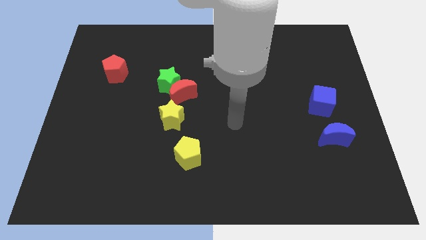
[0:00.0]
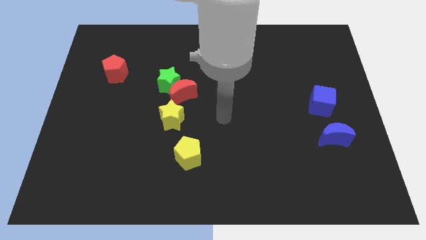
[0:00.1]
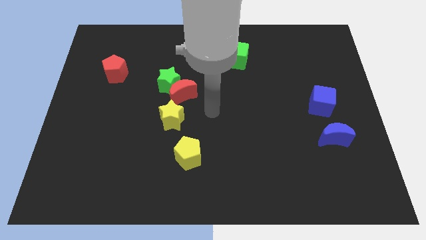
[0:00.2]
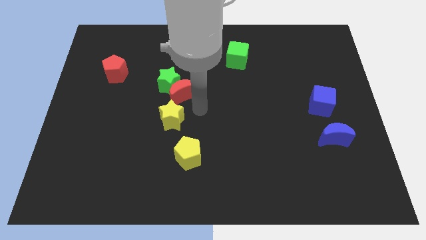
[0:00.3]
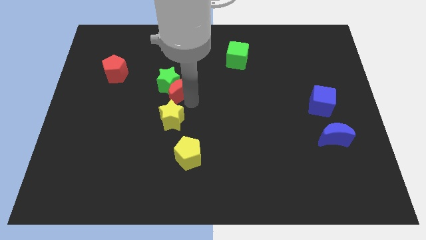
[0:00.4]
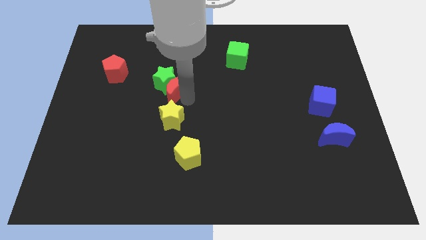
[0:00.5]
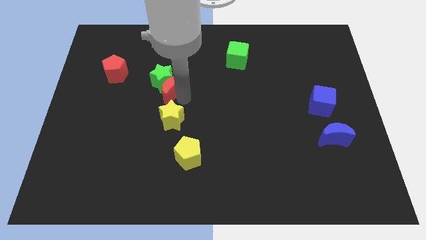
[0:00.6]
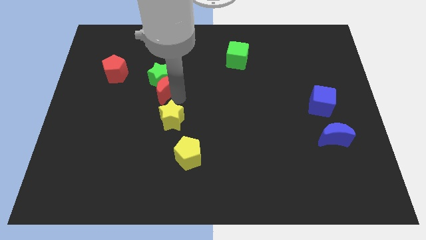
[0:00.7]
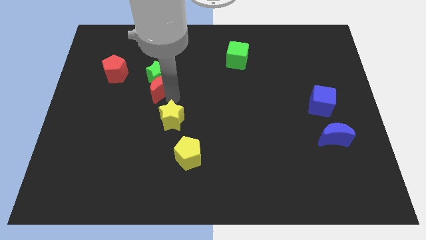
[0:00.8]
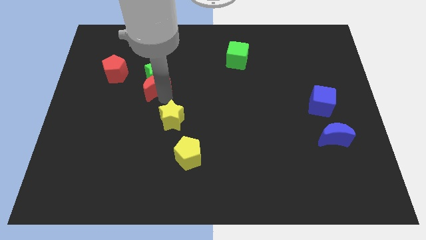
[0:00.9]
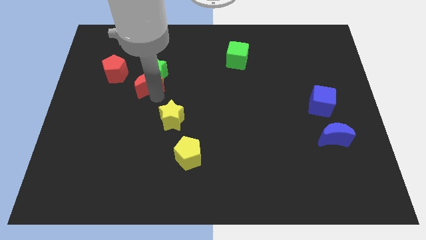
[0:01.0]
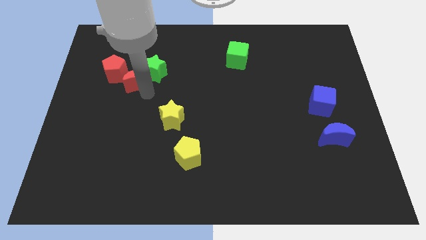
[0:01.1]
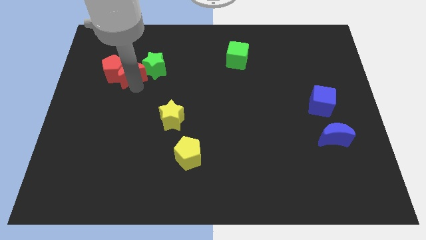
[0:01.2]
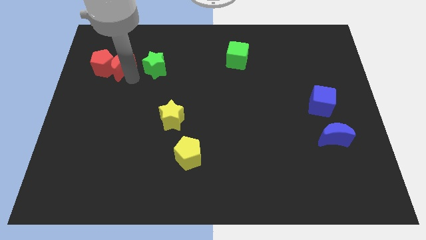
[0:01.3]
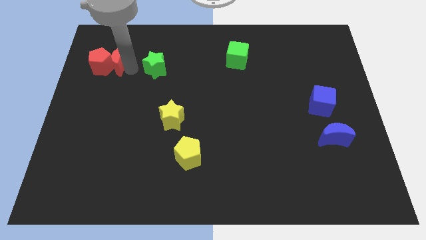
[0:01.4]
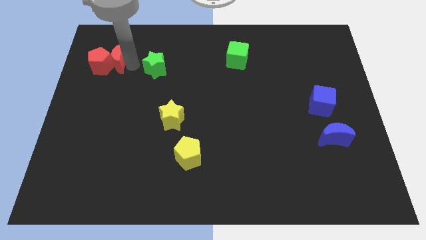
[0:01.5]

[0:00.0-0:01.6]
separate the green star from the red moon

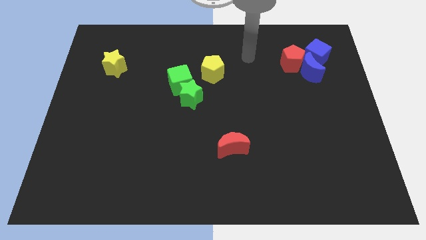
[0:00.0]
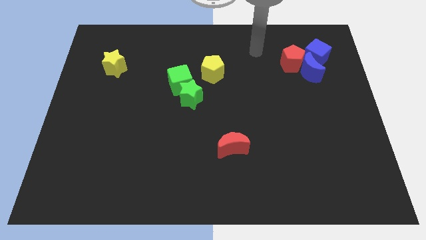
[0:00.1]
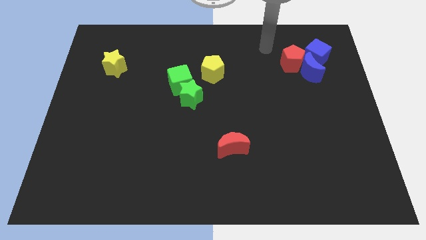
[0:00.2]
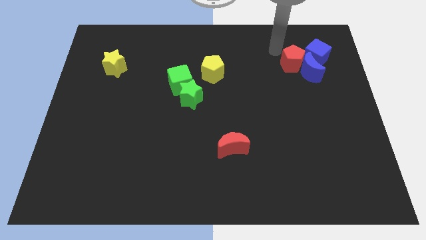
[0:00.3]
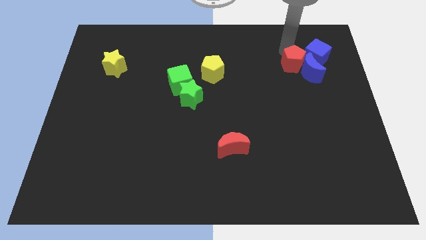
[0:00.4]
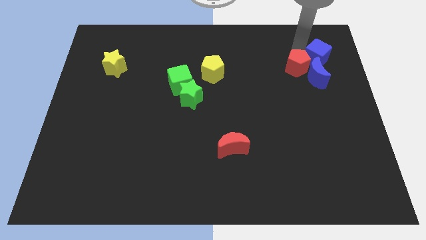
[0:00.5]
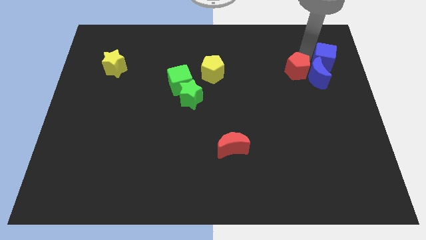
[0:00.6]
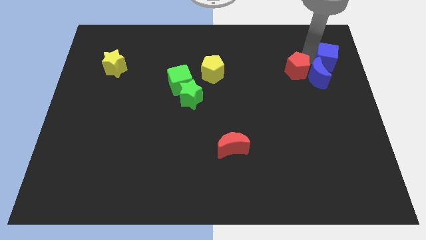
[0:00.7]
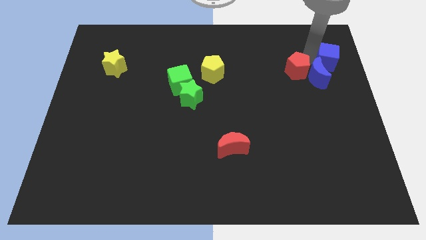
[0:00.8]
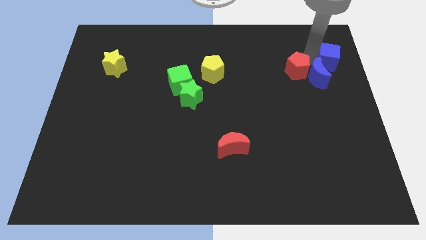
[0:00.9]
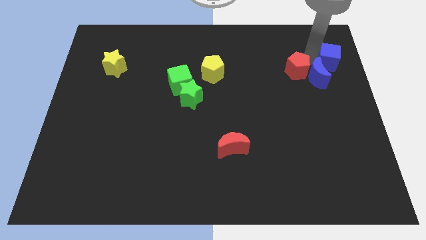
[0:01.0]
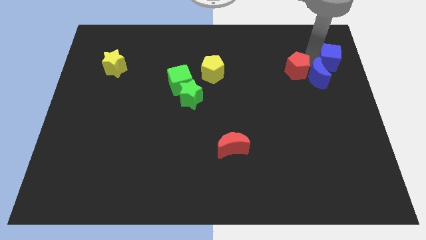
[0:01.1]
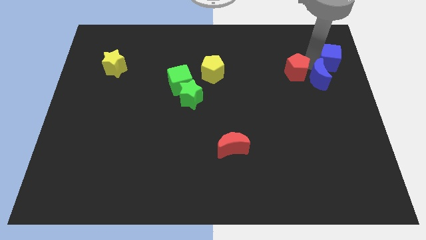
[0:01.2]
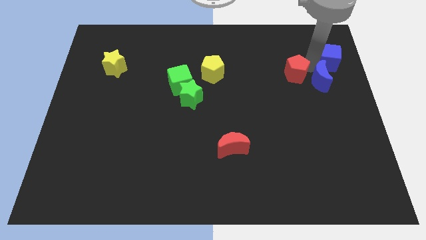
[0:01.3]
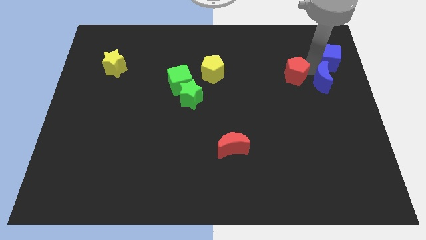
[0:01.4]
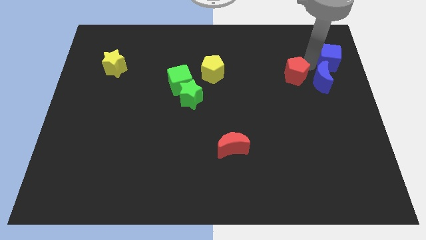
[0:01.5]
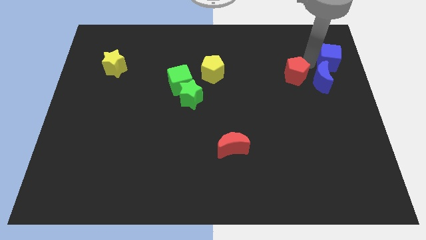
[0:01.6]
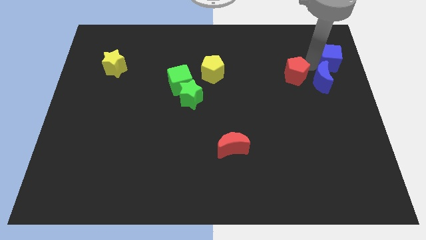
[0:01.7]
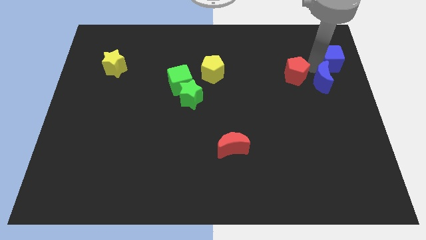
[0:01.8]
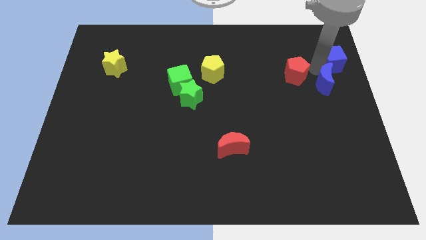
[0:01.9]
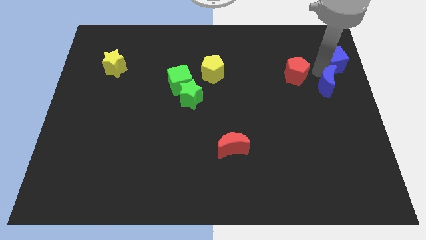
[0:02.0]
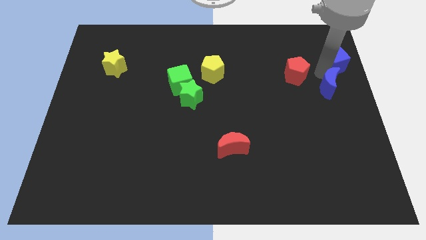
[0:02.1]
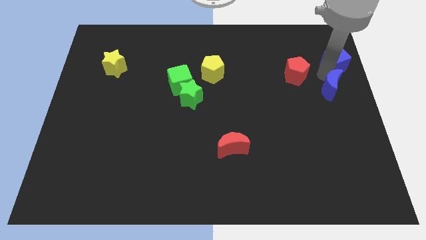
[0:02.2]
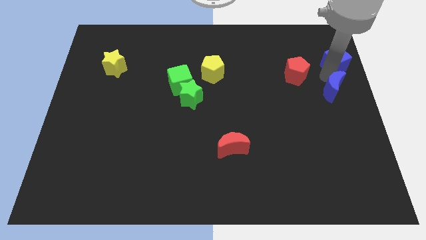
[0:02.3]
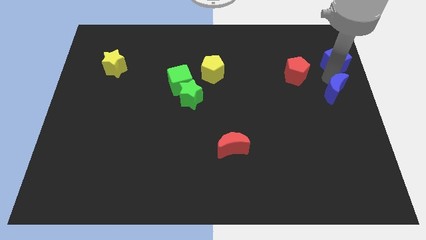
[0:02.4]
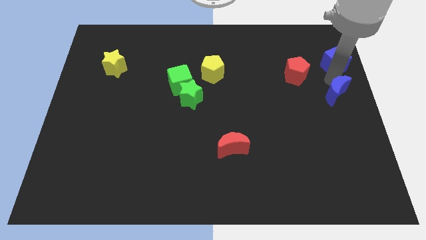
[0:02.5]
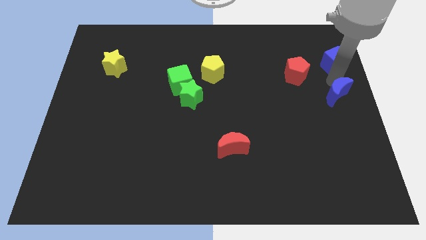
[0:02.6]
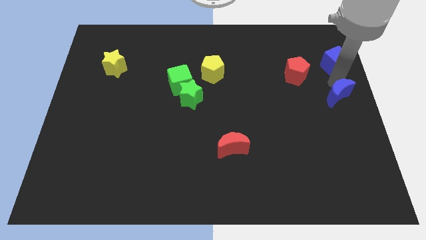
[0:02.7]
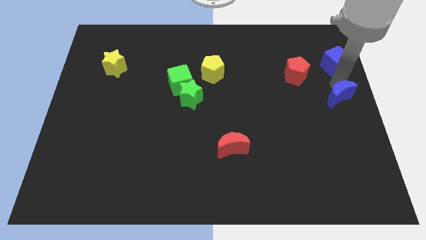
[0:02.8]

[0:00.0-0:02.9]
separate the blue moon from the red pentagon and blue cube

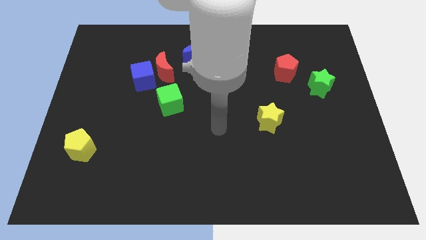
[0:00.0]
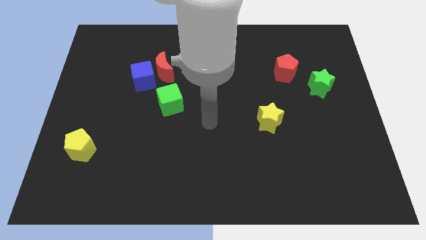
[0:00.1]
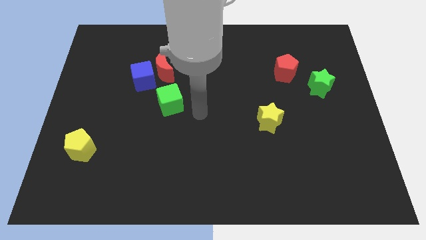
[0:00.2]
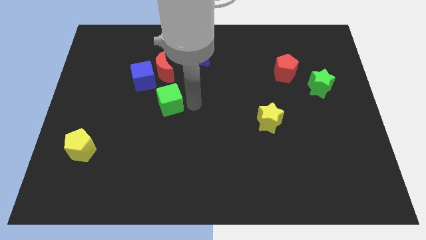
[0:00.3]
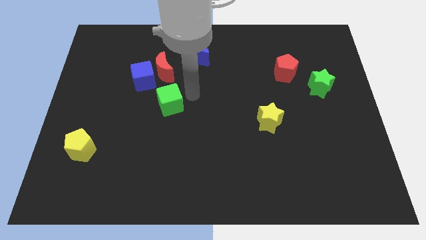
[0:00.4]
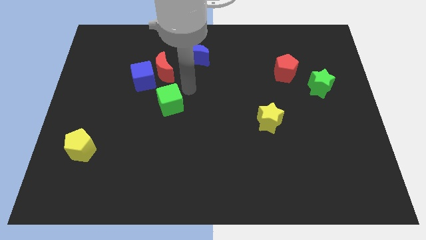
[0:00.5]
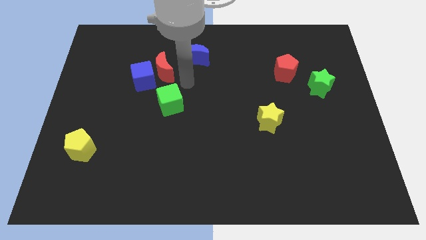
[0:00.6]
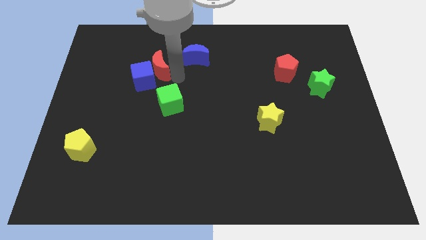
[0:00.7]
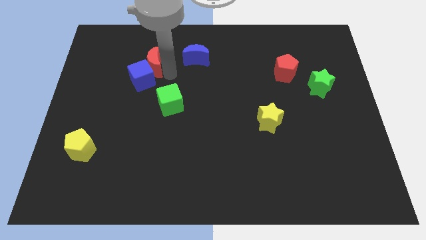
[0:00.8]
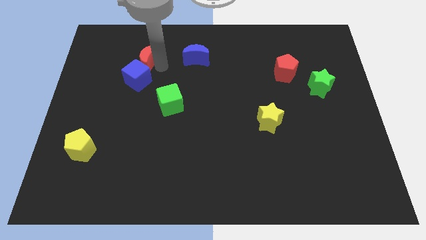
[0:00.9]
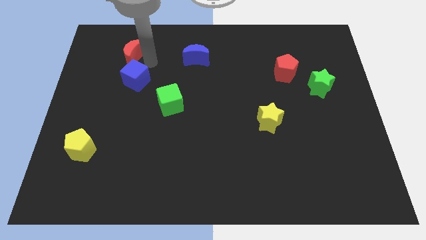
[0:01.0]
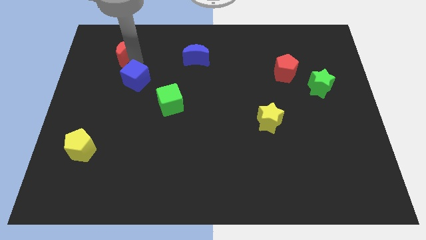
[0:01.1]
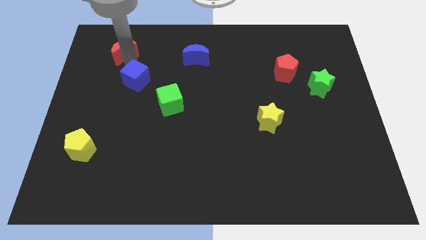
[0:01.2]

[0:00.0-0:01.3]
pull the blue cube apart from the red moon

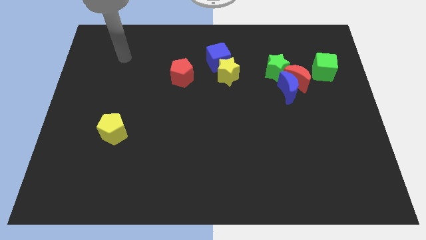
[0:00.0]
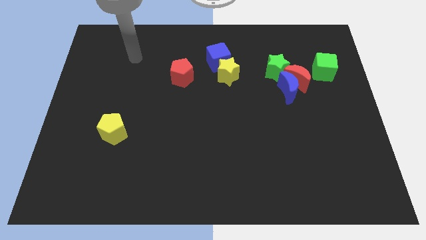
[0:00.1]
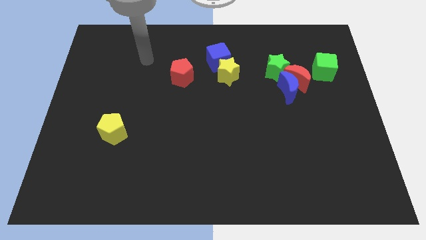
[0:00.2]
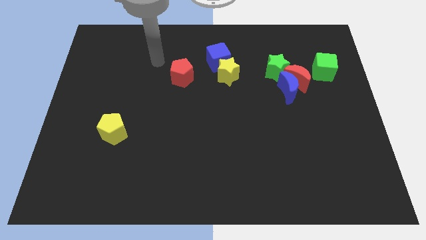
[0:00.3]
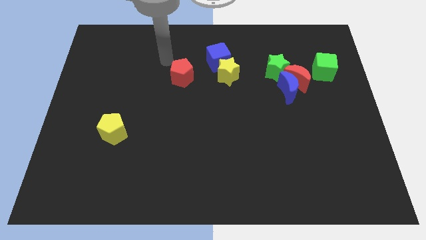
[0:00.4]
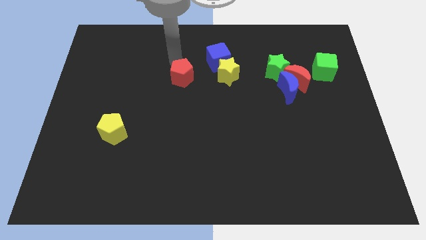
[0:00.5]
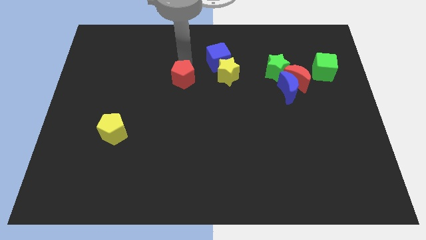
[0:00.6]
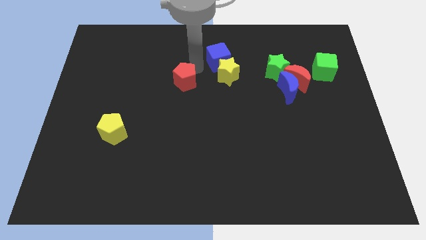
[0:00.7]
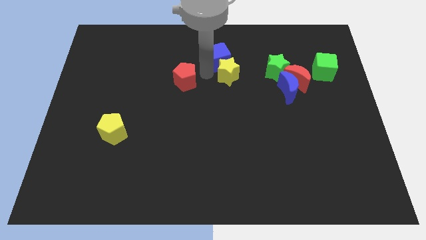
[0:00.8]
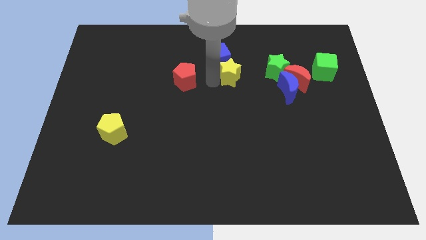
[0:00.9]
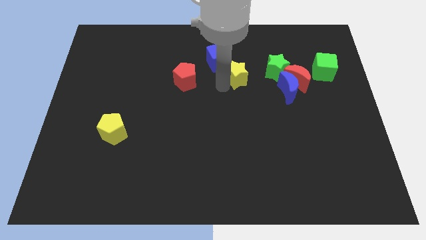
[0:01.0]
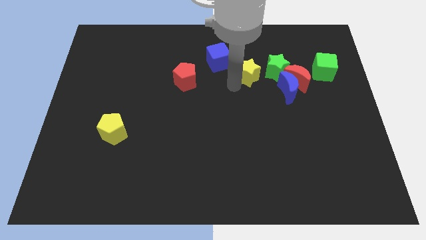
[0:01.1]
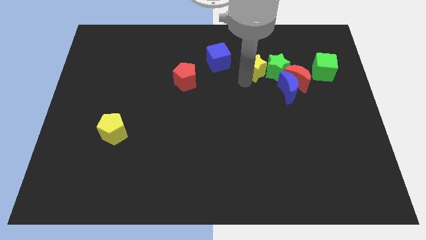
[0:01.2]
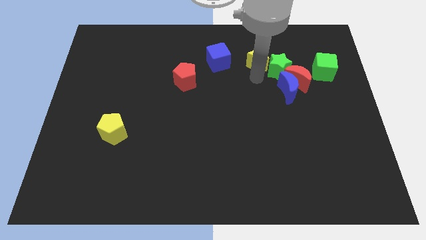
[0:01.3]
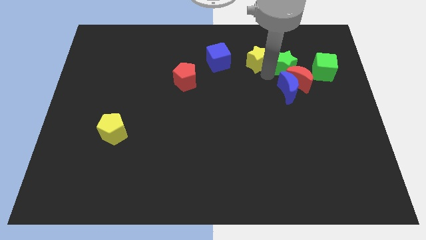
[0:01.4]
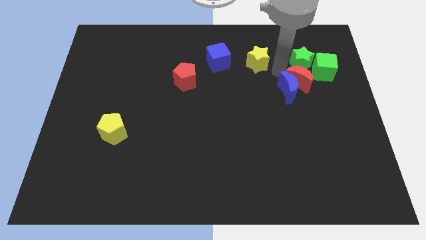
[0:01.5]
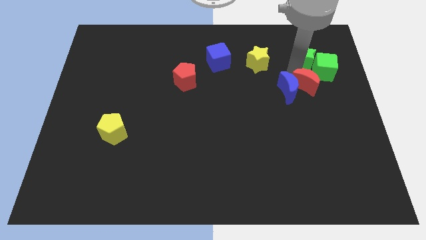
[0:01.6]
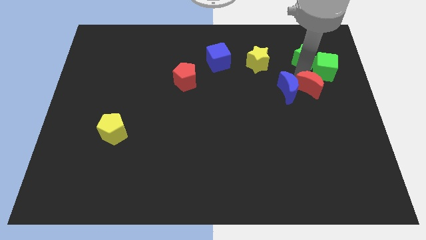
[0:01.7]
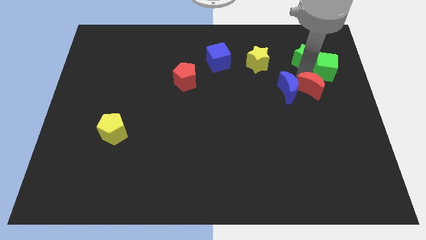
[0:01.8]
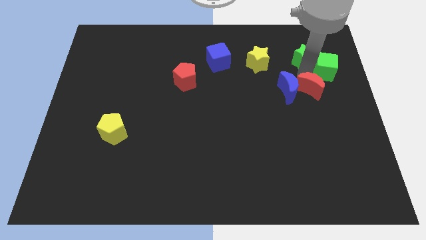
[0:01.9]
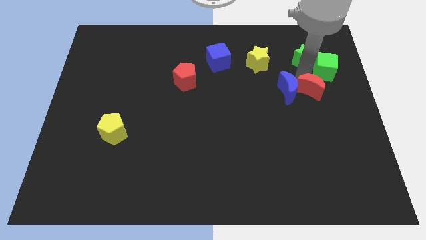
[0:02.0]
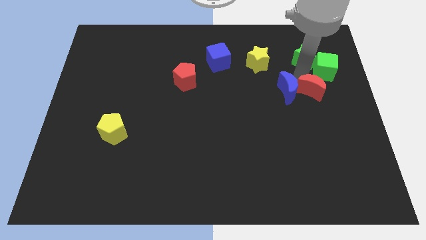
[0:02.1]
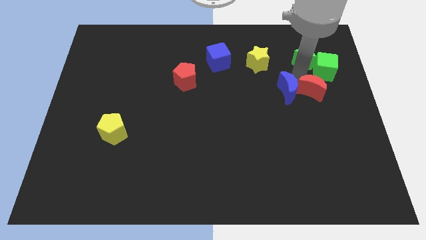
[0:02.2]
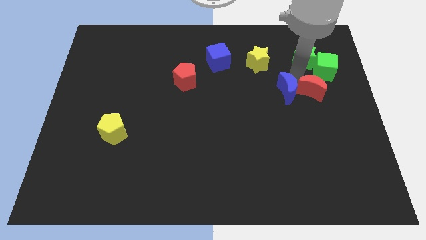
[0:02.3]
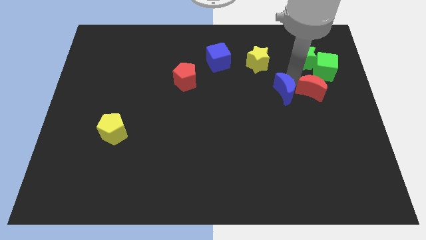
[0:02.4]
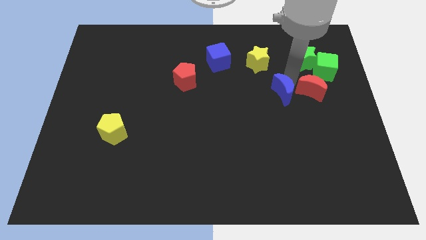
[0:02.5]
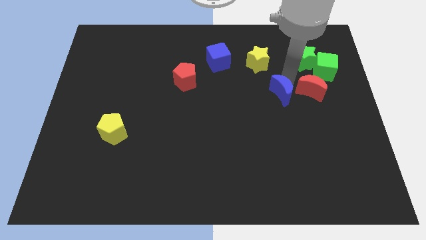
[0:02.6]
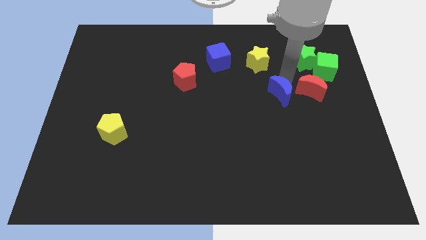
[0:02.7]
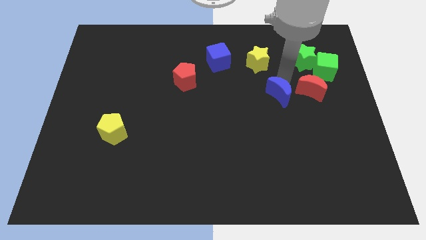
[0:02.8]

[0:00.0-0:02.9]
separate the blue moon from the red moon and green star

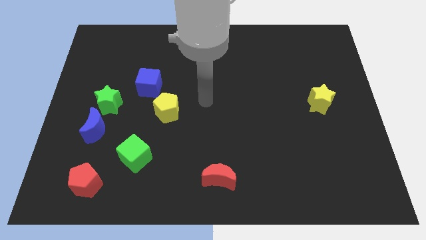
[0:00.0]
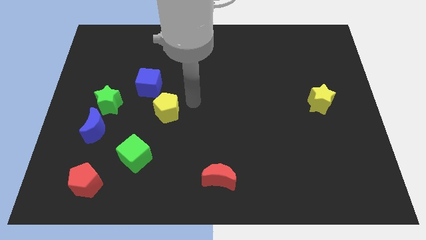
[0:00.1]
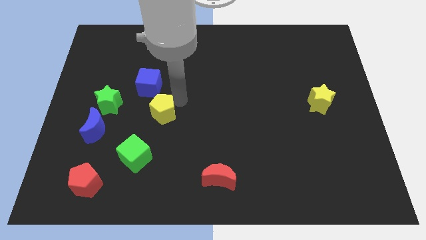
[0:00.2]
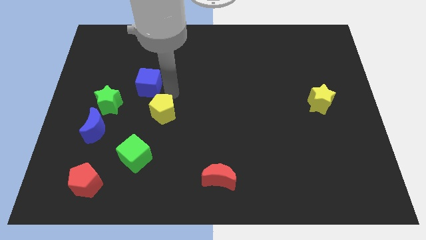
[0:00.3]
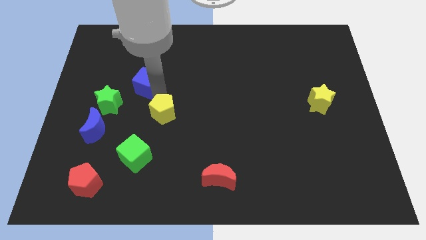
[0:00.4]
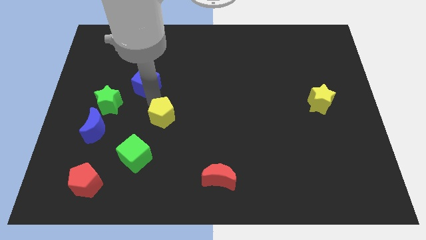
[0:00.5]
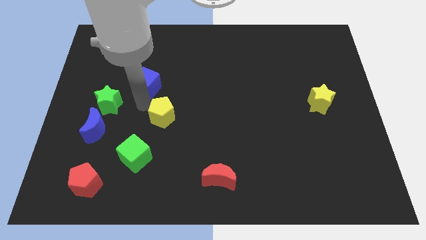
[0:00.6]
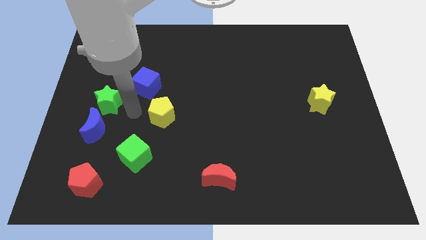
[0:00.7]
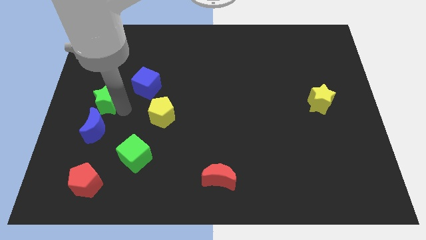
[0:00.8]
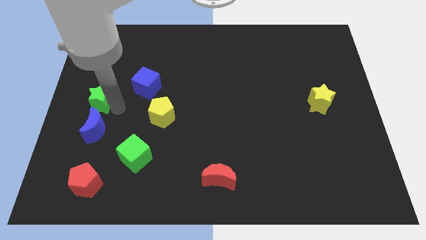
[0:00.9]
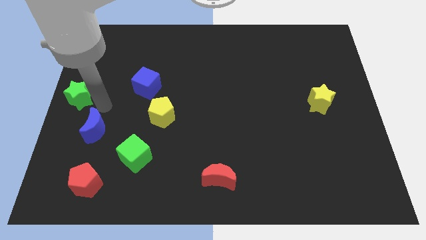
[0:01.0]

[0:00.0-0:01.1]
separate the blue moon from the green star
